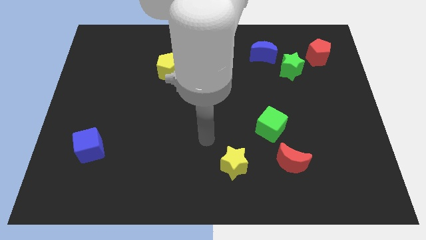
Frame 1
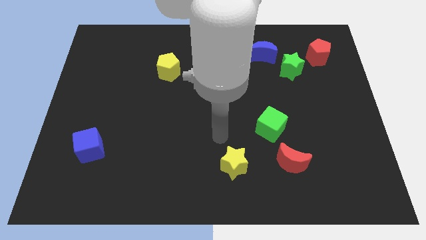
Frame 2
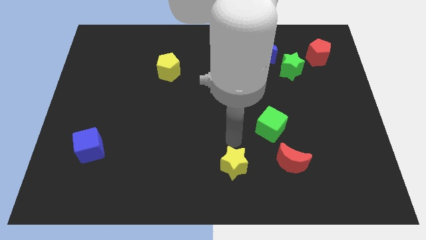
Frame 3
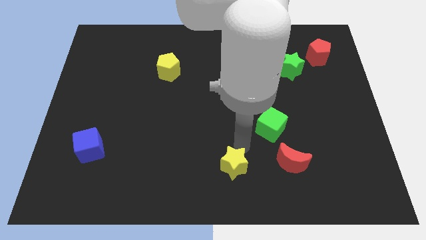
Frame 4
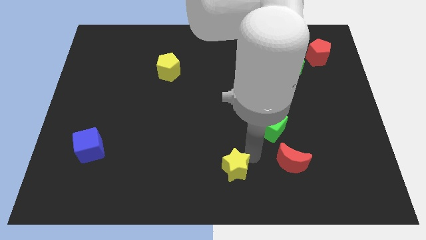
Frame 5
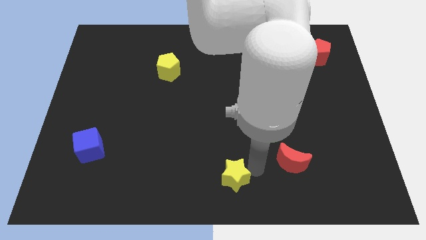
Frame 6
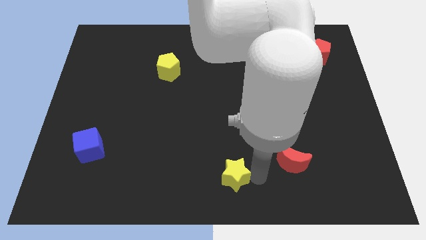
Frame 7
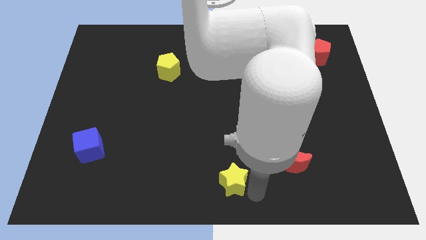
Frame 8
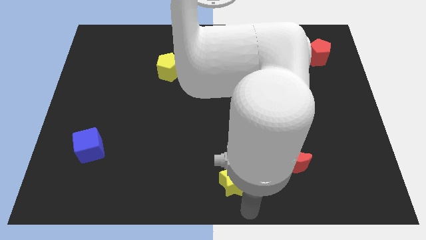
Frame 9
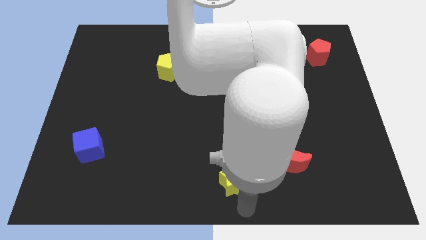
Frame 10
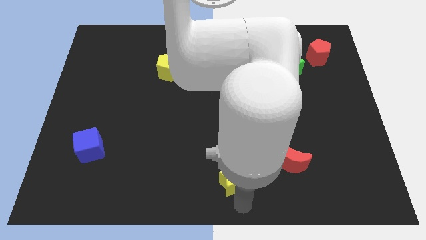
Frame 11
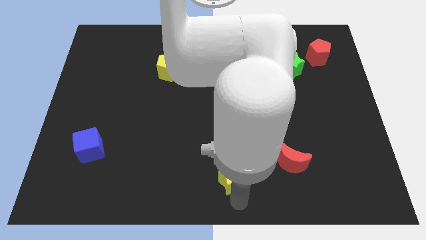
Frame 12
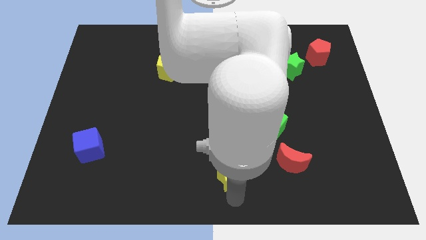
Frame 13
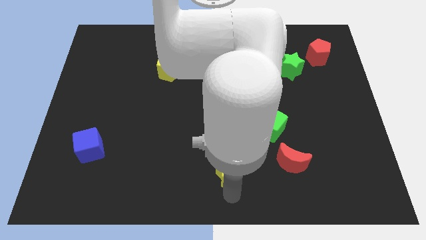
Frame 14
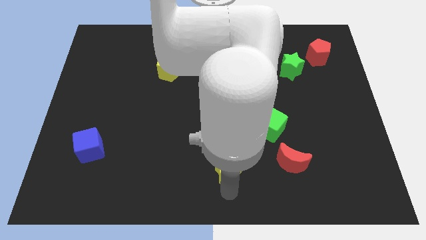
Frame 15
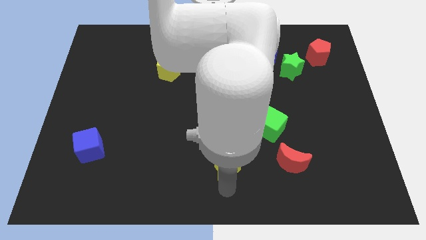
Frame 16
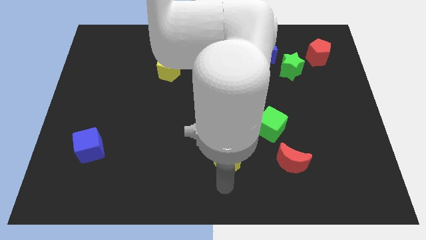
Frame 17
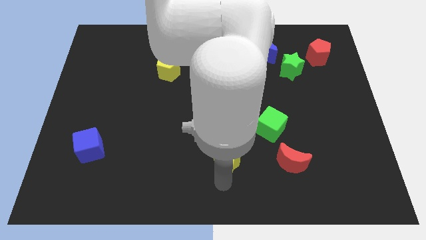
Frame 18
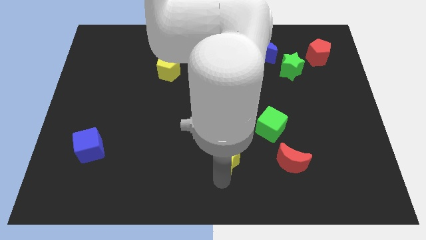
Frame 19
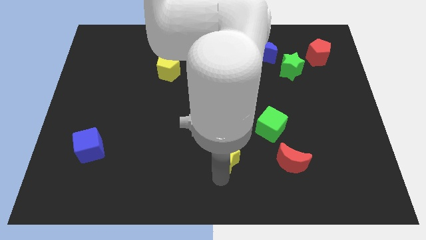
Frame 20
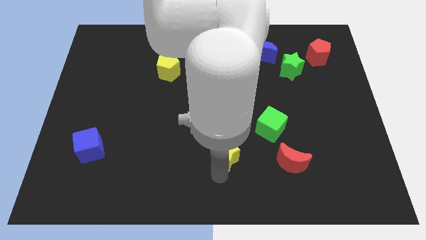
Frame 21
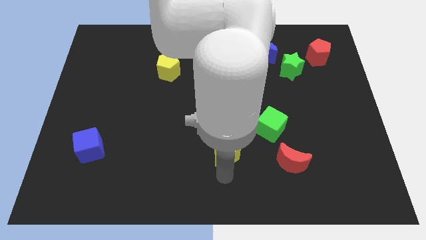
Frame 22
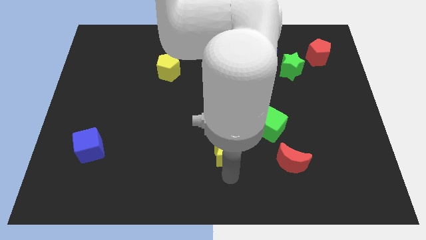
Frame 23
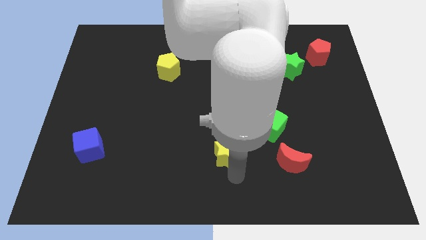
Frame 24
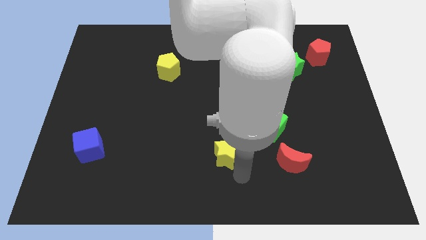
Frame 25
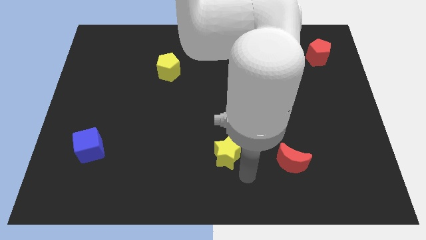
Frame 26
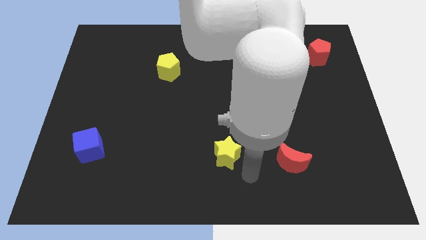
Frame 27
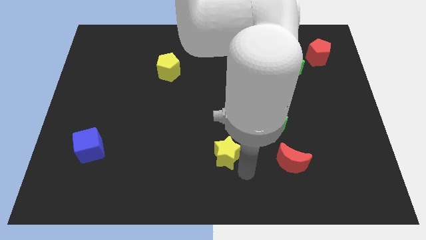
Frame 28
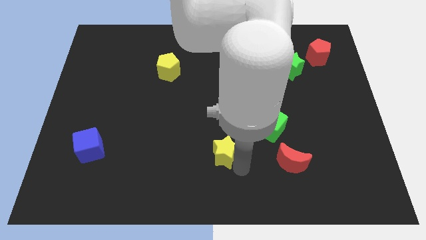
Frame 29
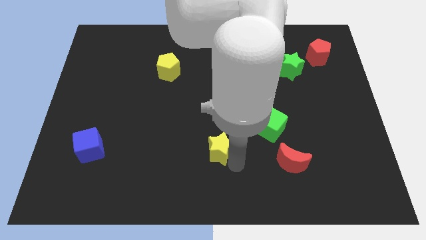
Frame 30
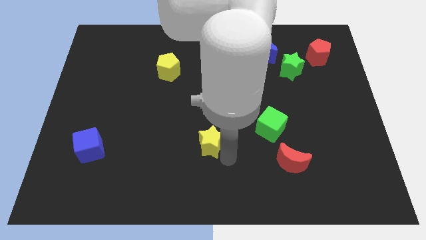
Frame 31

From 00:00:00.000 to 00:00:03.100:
push the yellow star slightly up and left diagonally

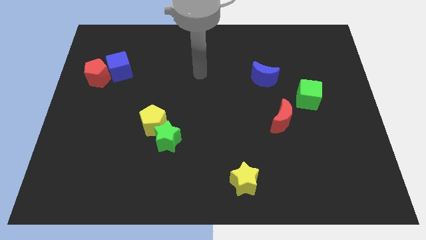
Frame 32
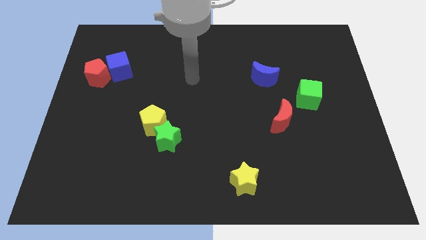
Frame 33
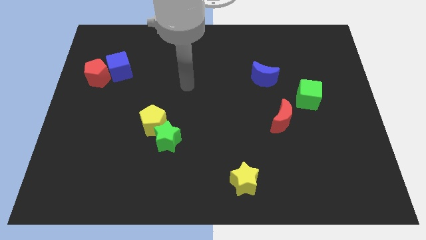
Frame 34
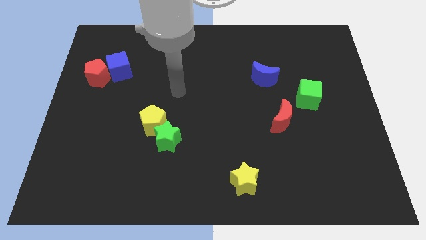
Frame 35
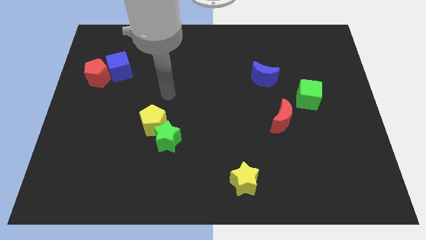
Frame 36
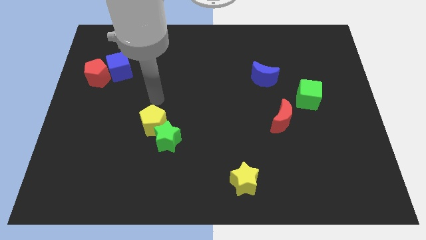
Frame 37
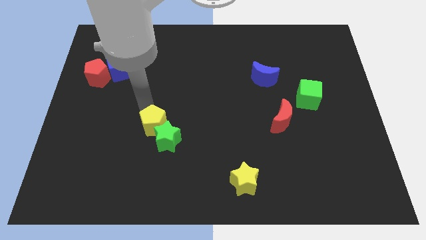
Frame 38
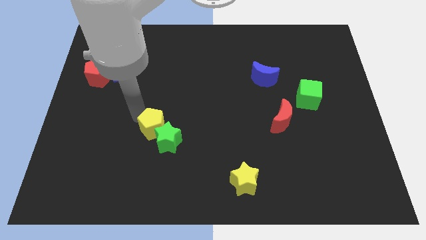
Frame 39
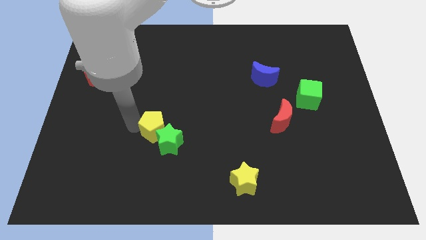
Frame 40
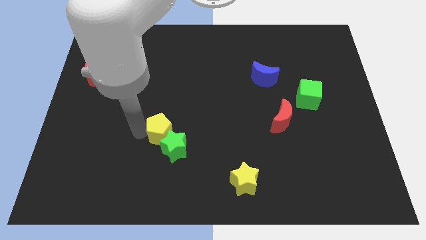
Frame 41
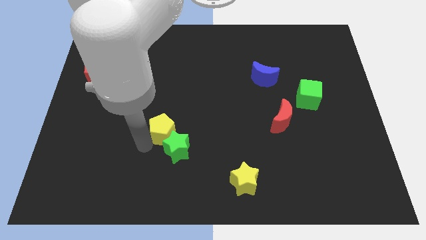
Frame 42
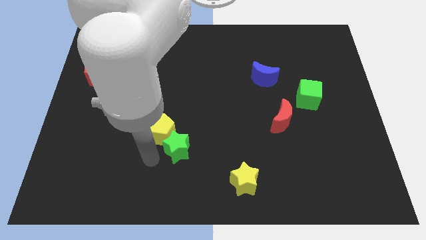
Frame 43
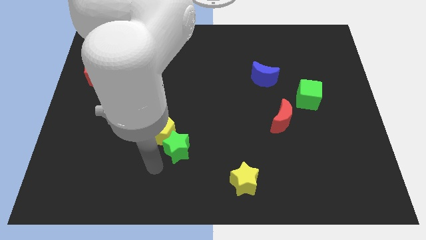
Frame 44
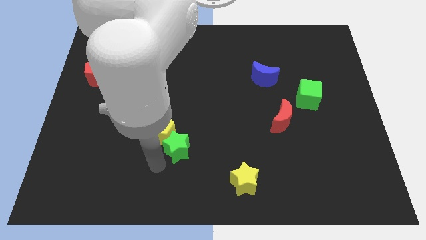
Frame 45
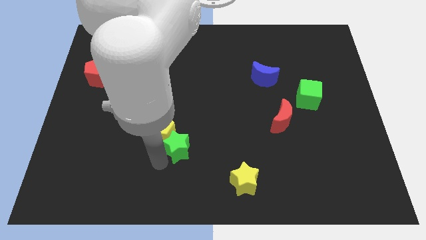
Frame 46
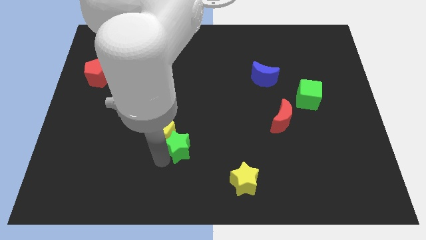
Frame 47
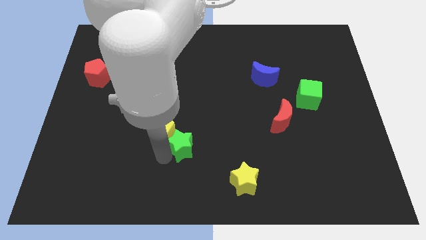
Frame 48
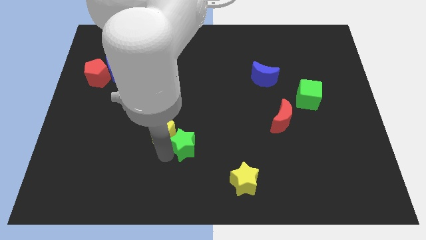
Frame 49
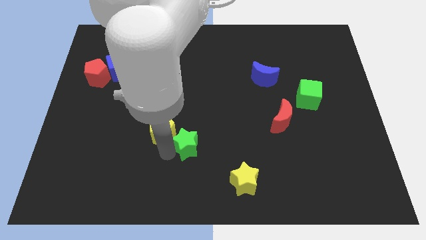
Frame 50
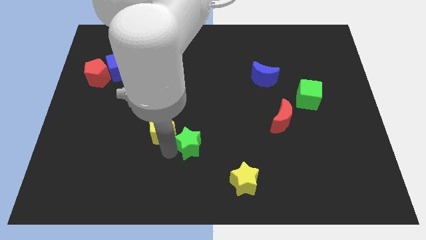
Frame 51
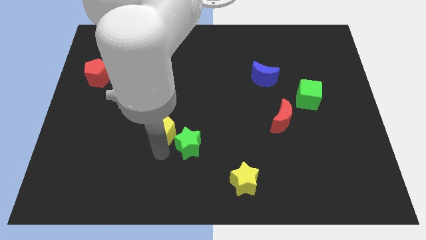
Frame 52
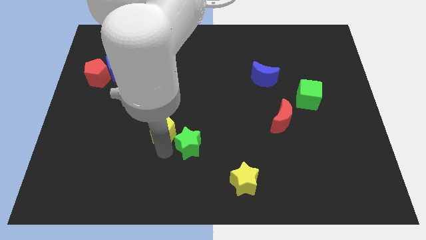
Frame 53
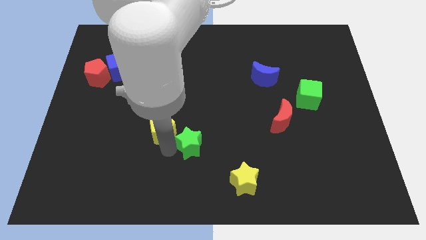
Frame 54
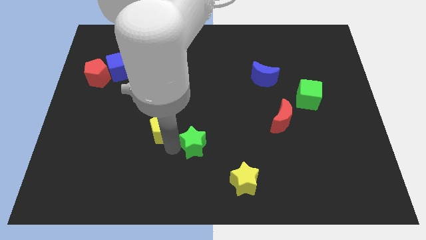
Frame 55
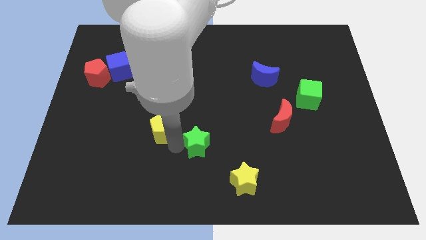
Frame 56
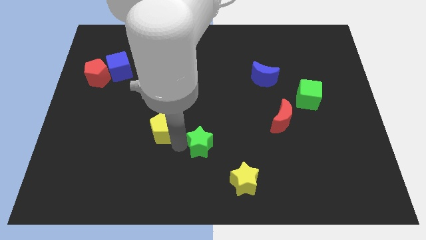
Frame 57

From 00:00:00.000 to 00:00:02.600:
push the green star a little to the right

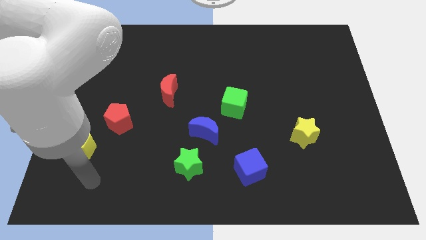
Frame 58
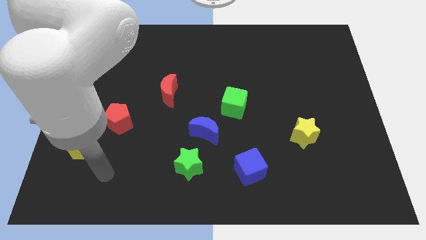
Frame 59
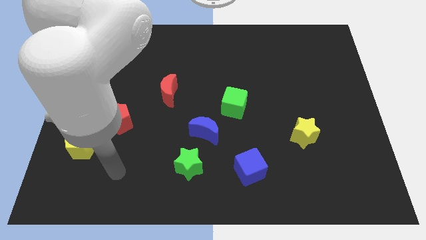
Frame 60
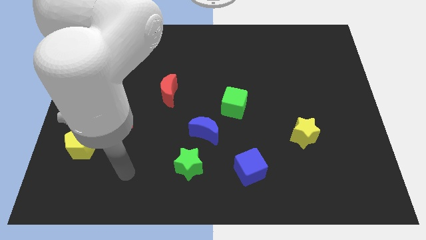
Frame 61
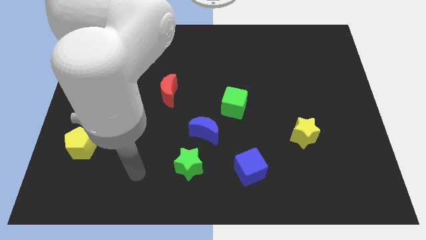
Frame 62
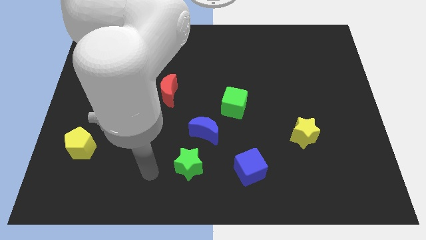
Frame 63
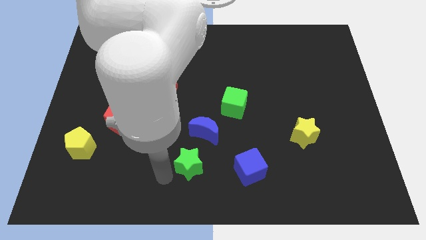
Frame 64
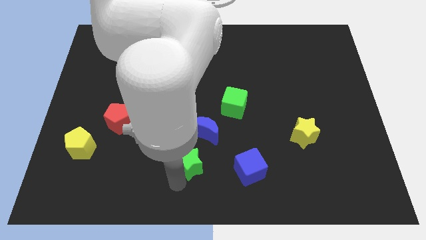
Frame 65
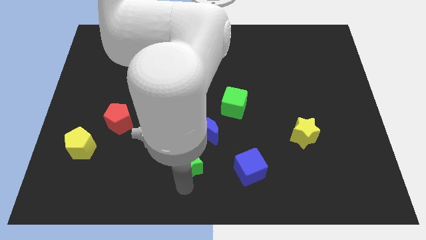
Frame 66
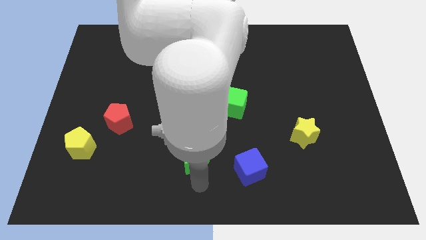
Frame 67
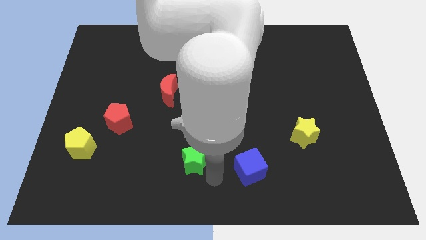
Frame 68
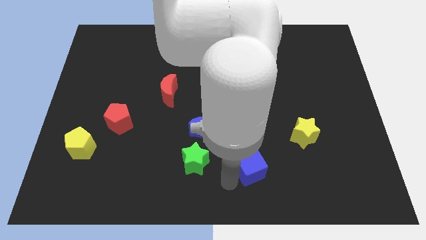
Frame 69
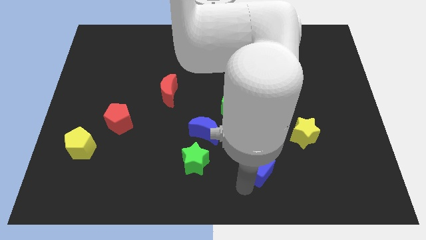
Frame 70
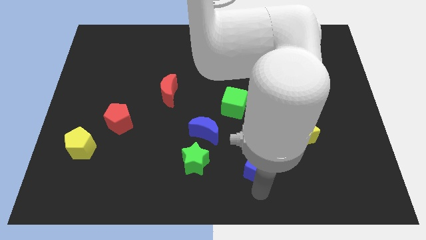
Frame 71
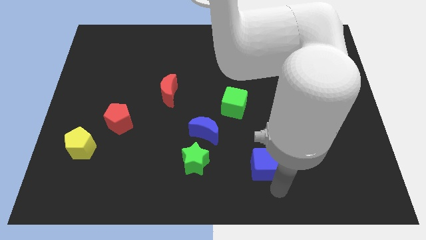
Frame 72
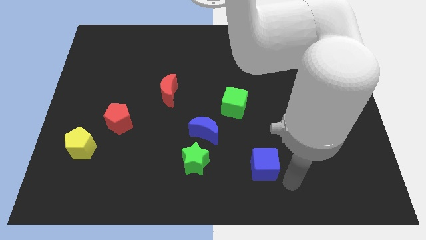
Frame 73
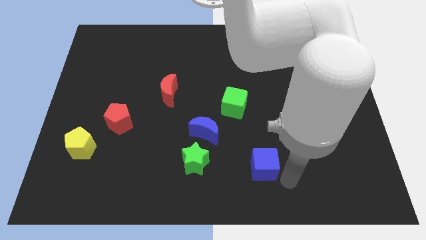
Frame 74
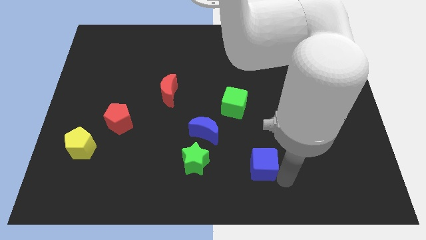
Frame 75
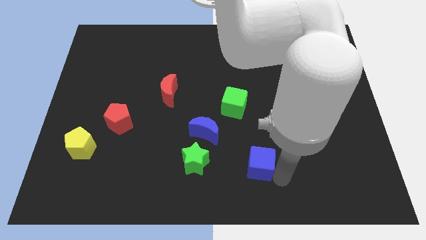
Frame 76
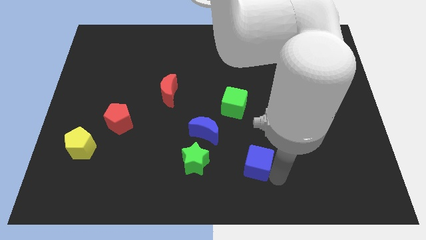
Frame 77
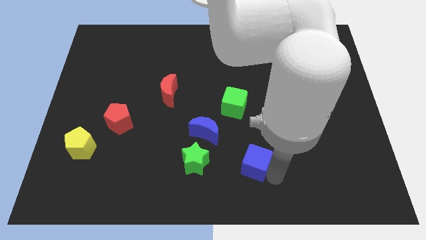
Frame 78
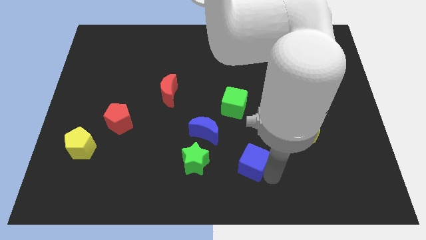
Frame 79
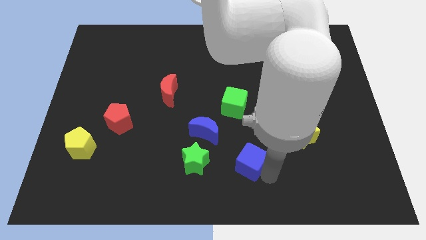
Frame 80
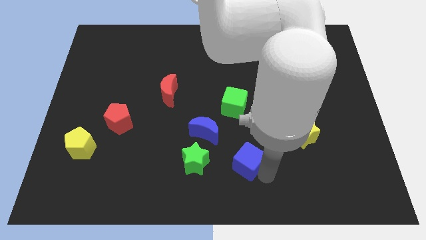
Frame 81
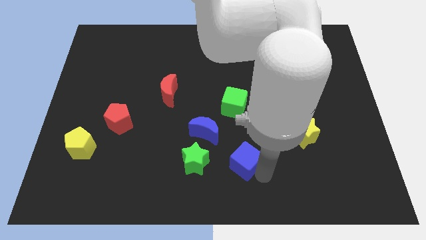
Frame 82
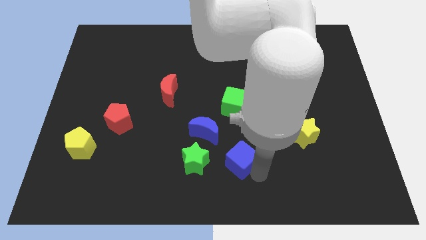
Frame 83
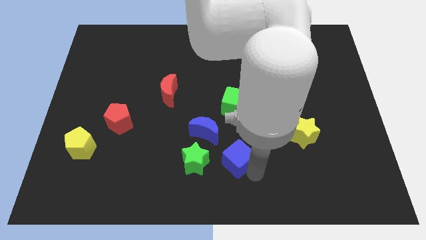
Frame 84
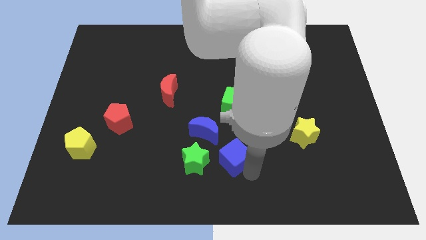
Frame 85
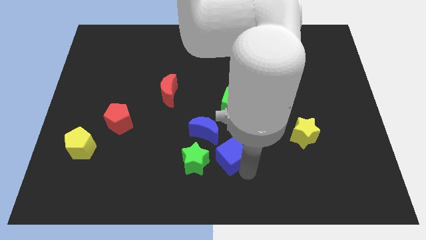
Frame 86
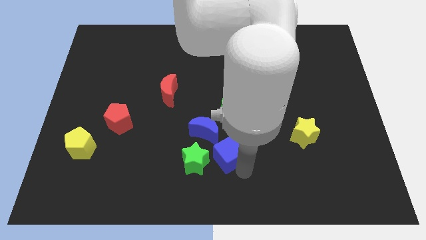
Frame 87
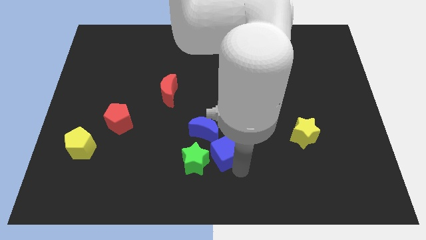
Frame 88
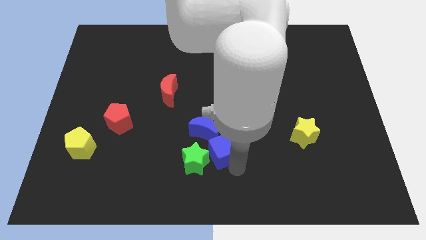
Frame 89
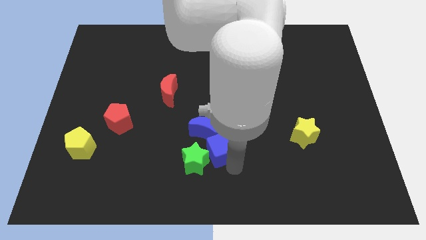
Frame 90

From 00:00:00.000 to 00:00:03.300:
push the blue cube upwards and then to the left a little bit
